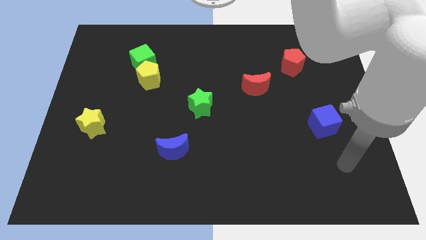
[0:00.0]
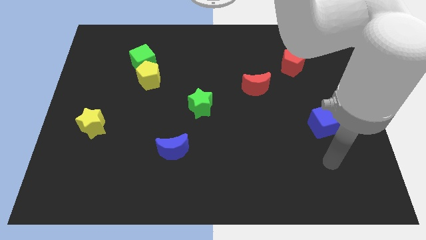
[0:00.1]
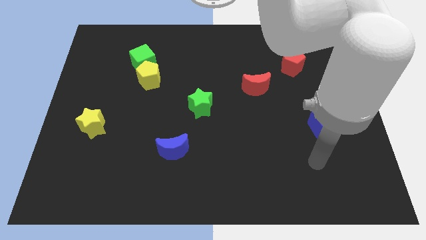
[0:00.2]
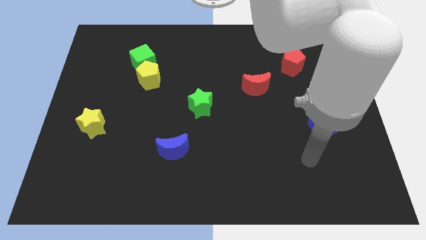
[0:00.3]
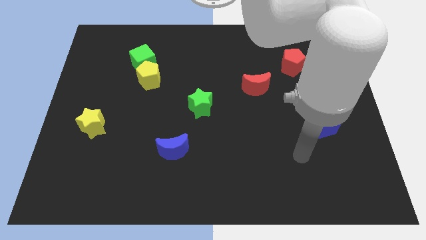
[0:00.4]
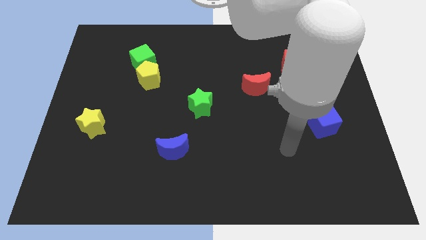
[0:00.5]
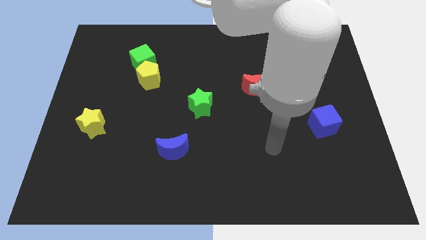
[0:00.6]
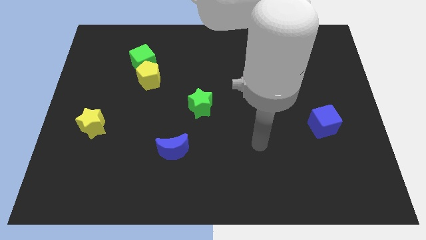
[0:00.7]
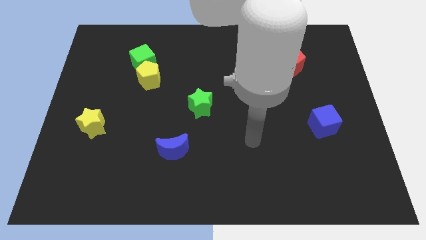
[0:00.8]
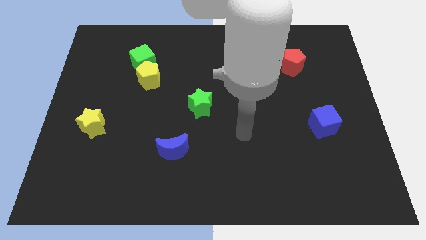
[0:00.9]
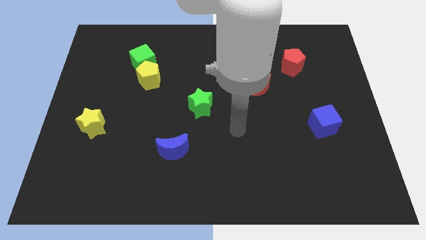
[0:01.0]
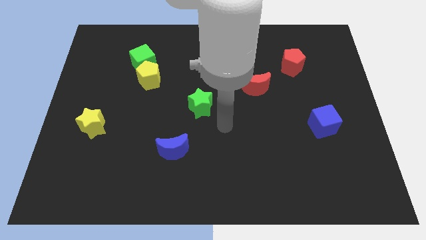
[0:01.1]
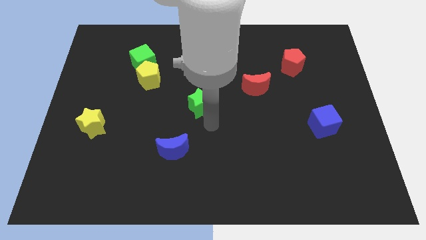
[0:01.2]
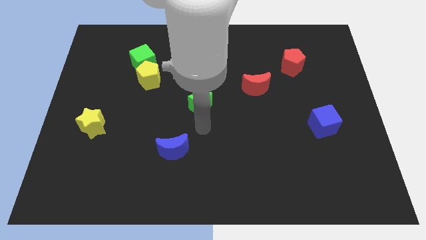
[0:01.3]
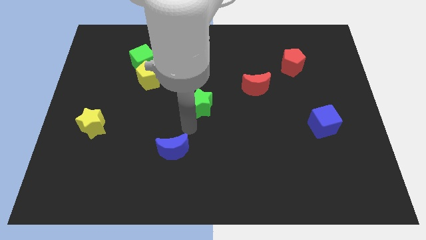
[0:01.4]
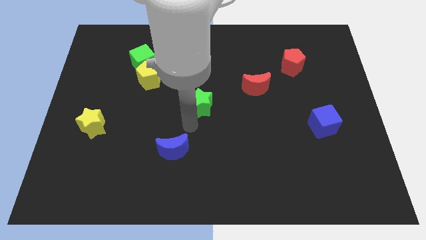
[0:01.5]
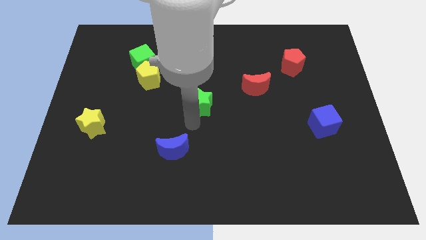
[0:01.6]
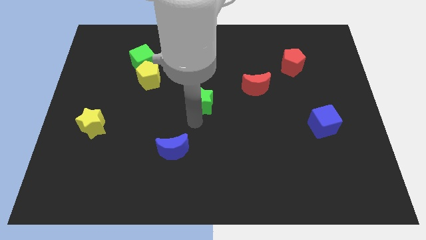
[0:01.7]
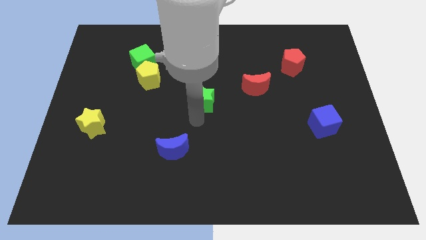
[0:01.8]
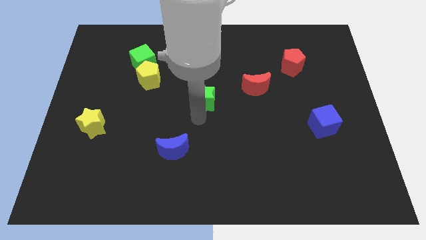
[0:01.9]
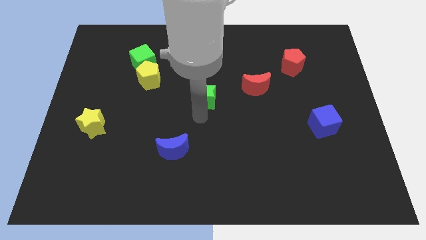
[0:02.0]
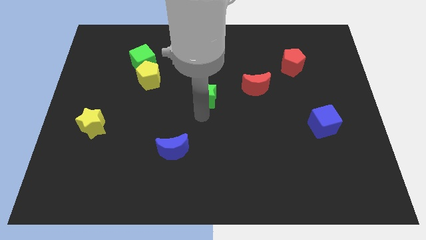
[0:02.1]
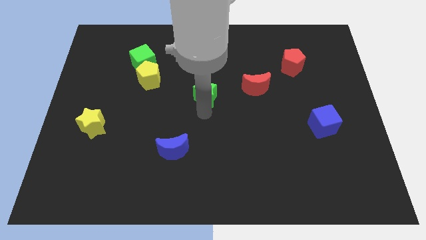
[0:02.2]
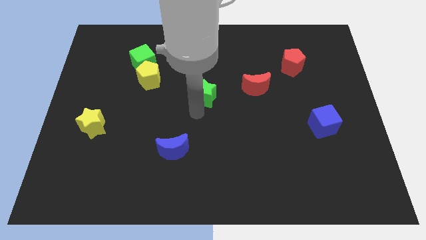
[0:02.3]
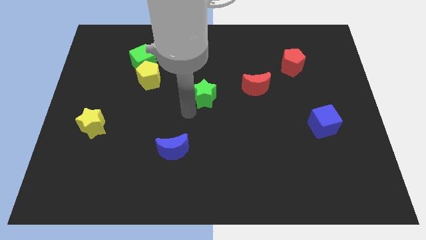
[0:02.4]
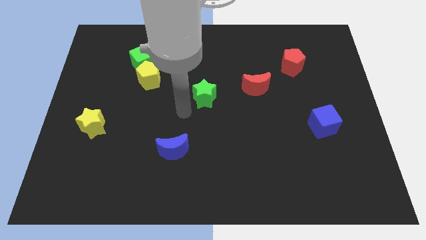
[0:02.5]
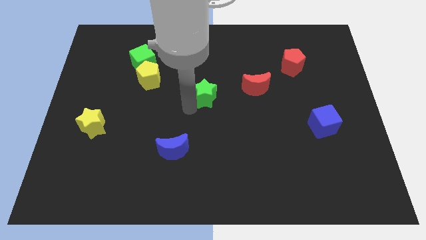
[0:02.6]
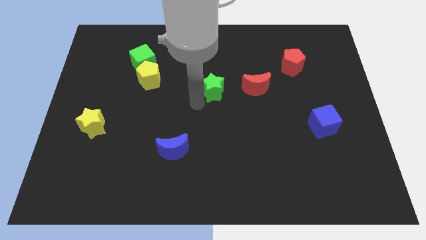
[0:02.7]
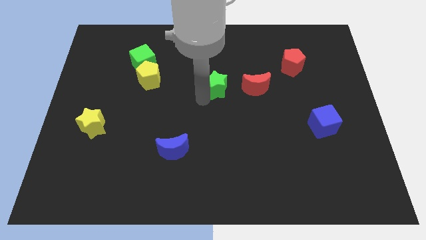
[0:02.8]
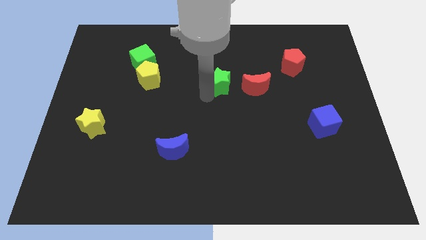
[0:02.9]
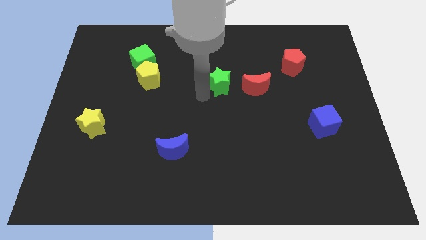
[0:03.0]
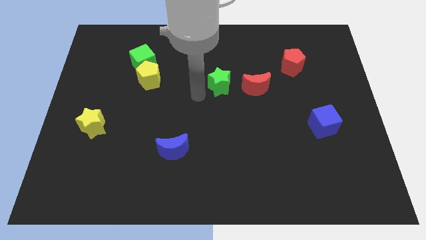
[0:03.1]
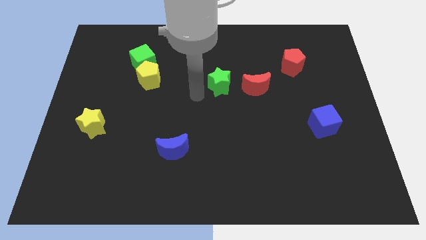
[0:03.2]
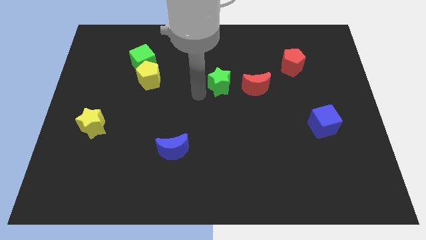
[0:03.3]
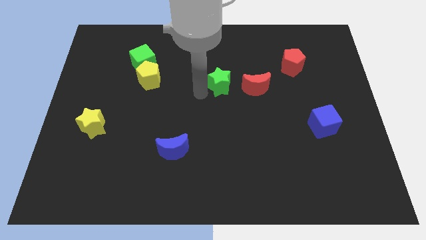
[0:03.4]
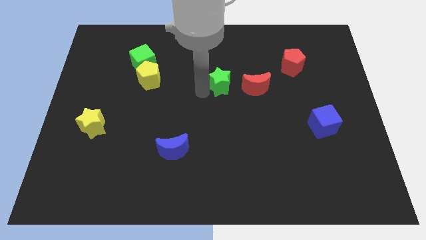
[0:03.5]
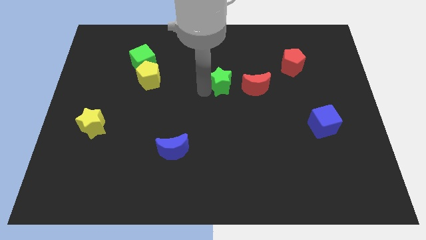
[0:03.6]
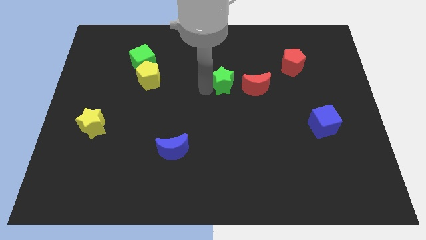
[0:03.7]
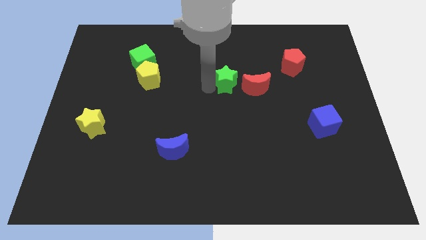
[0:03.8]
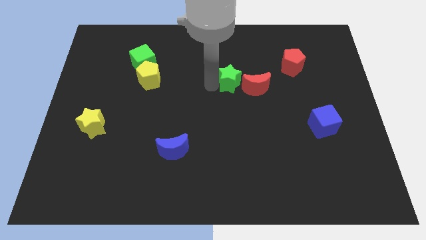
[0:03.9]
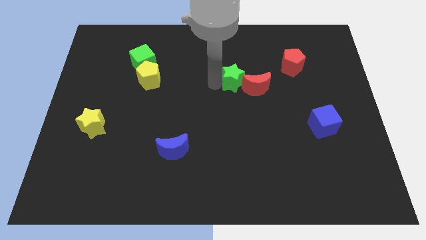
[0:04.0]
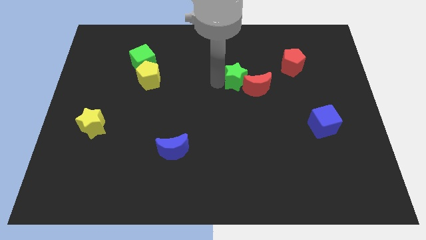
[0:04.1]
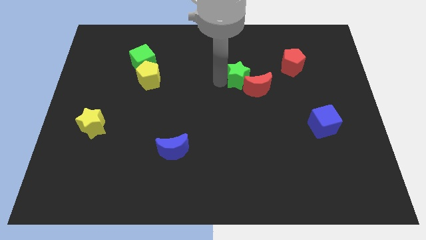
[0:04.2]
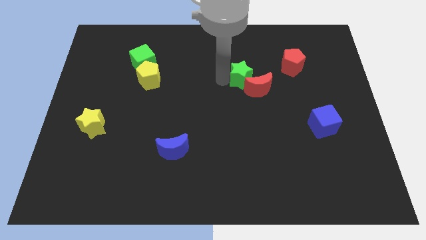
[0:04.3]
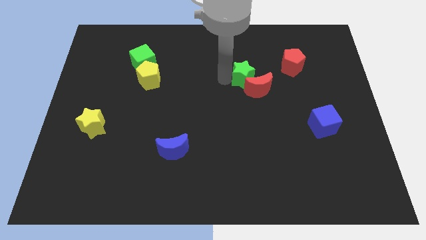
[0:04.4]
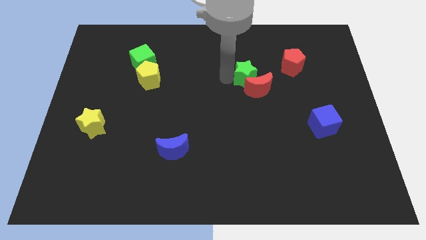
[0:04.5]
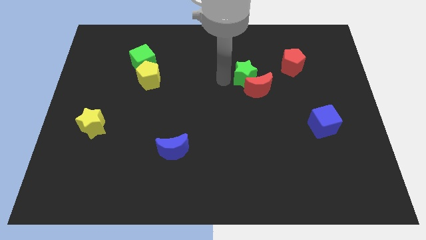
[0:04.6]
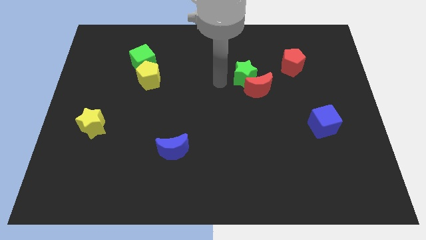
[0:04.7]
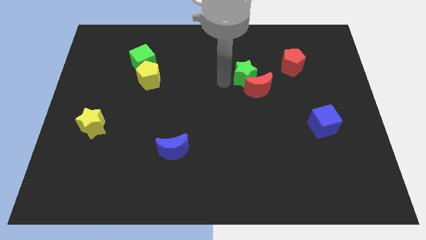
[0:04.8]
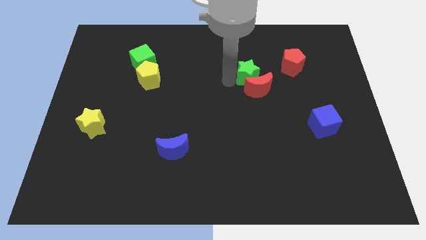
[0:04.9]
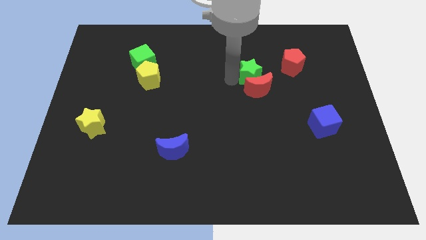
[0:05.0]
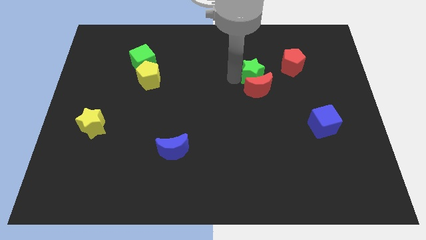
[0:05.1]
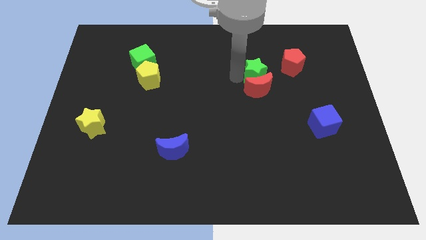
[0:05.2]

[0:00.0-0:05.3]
slide the green star diagonally down and to the left of the red pentagon

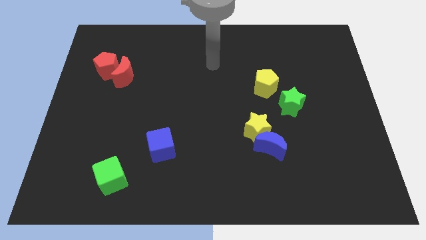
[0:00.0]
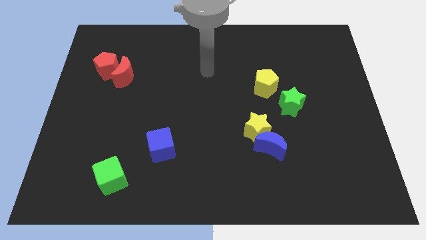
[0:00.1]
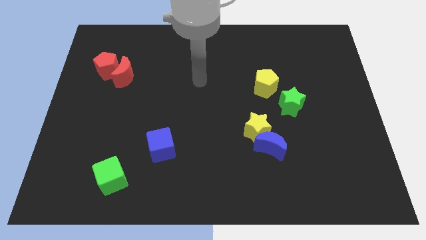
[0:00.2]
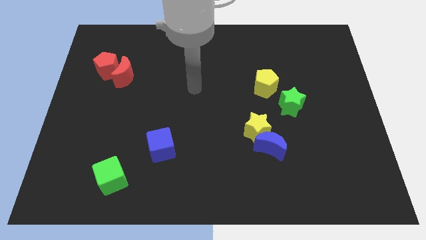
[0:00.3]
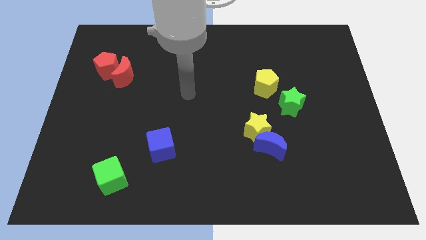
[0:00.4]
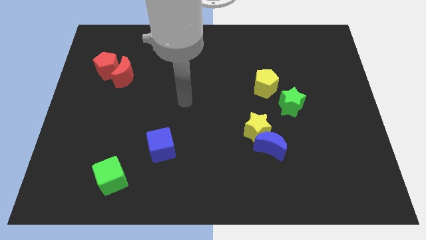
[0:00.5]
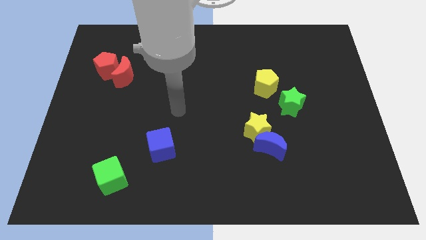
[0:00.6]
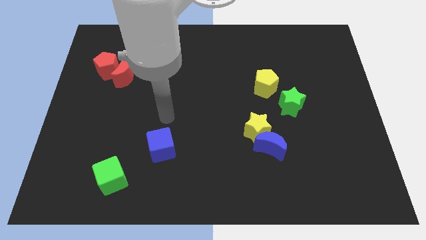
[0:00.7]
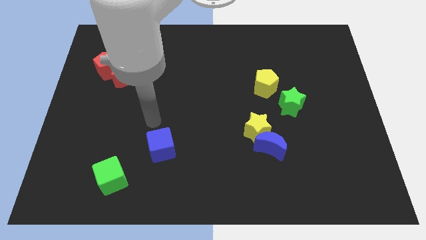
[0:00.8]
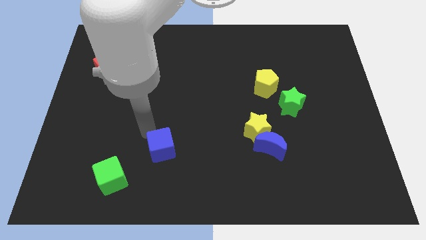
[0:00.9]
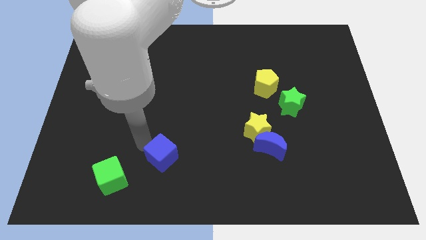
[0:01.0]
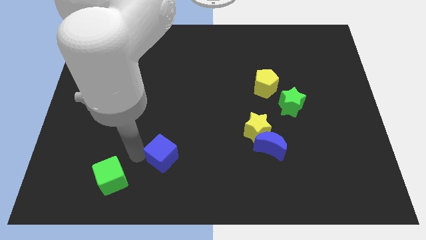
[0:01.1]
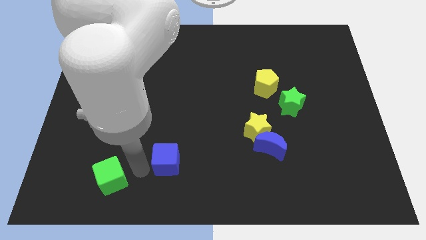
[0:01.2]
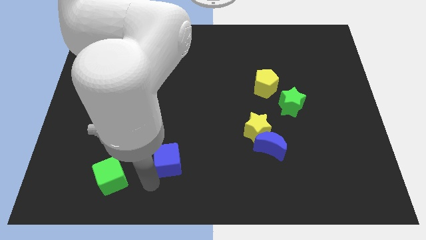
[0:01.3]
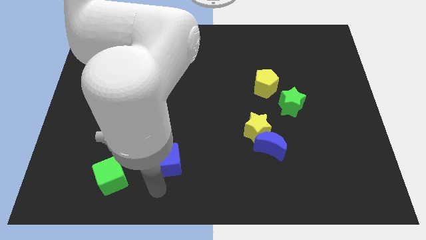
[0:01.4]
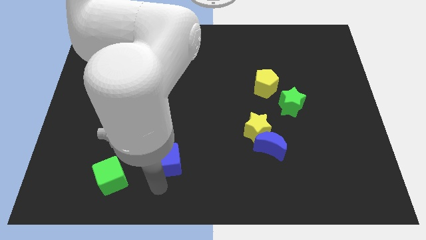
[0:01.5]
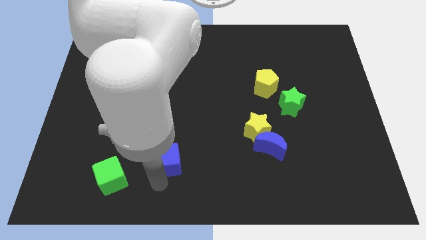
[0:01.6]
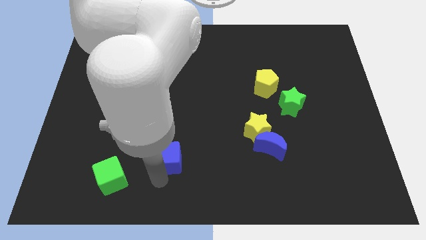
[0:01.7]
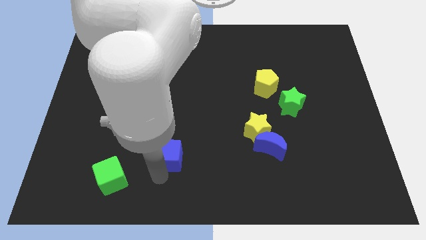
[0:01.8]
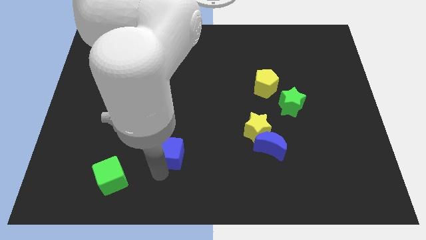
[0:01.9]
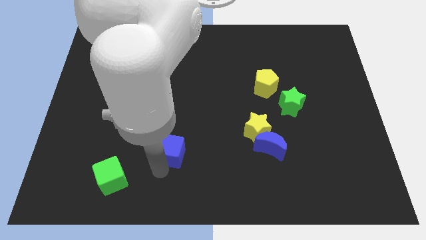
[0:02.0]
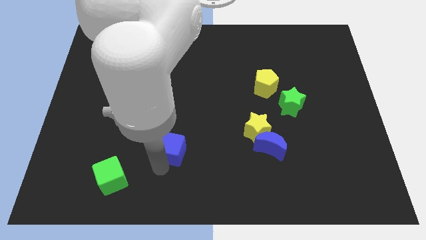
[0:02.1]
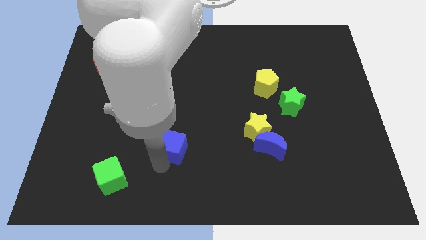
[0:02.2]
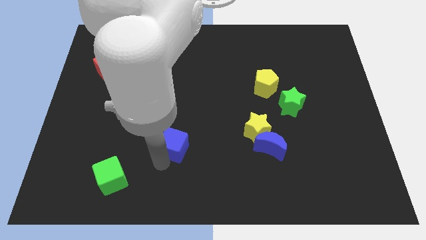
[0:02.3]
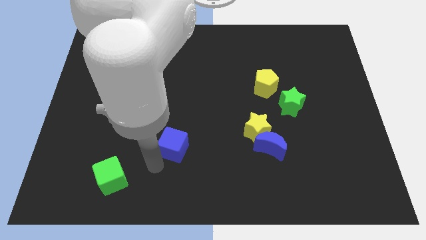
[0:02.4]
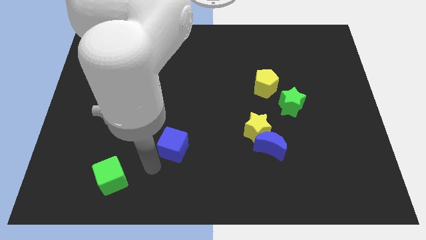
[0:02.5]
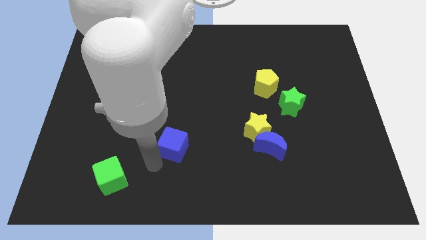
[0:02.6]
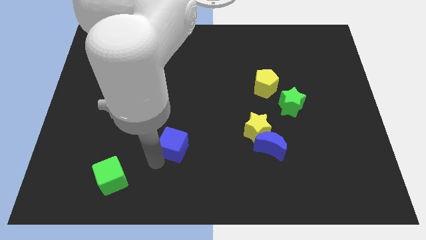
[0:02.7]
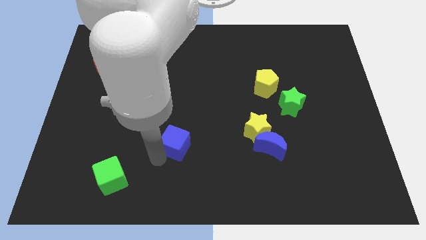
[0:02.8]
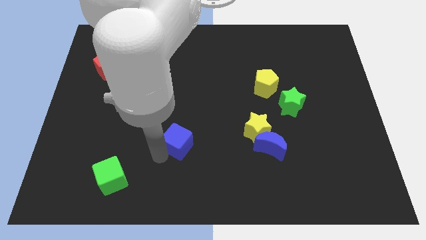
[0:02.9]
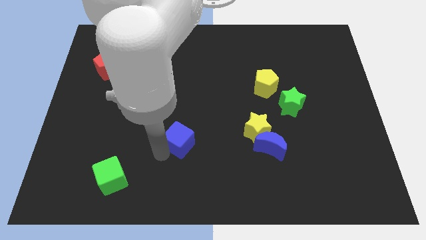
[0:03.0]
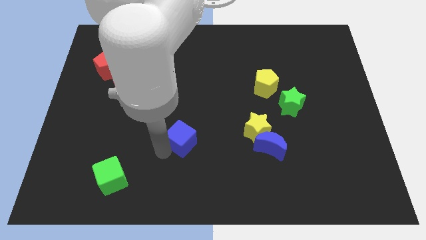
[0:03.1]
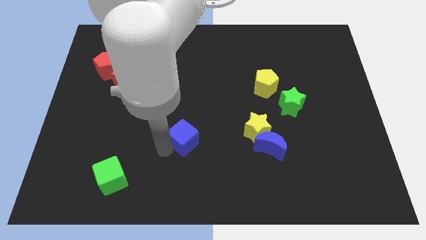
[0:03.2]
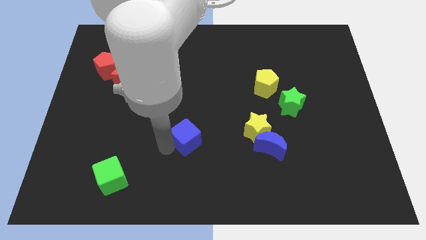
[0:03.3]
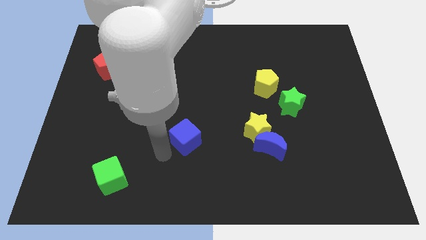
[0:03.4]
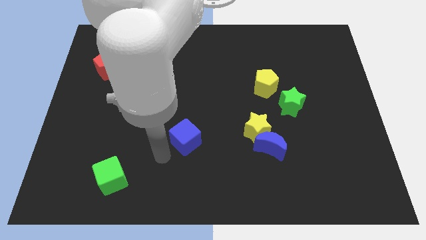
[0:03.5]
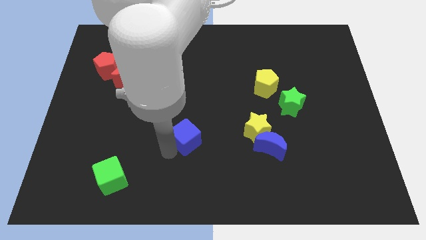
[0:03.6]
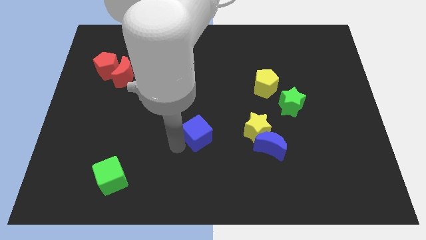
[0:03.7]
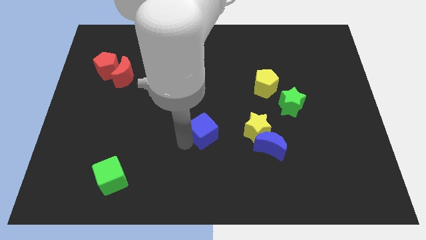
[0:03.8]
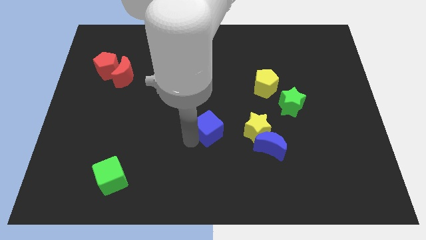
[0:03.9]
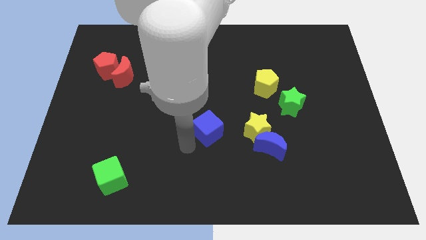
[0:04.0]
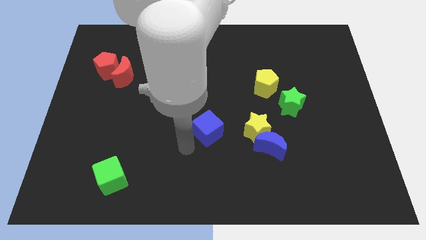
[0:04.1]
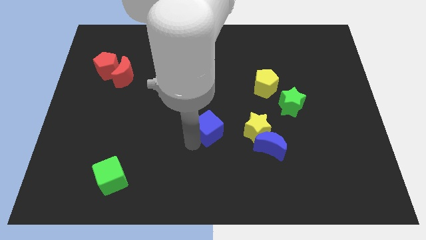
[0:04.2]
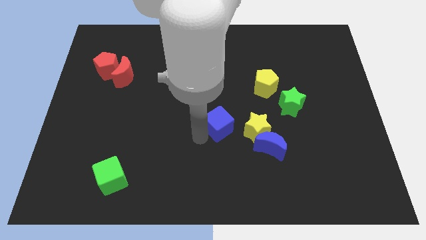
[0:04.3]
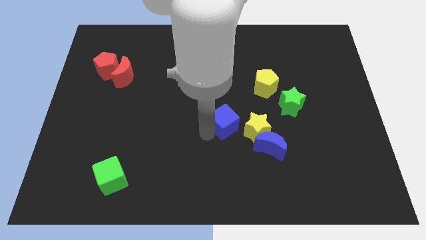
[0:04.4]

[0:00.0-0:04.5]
push the blue cube to the top left side of the yellow star
